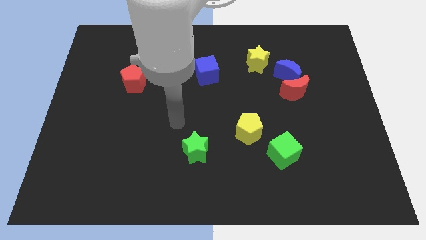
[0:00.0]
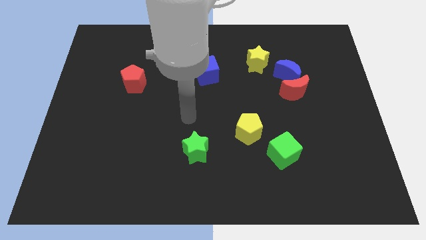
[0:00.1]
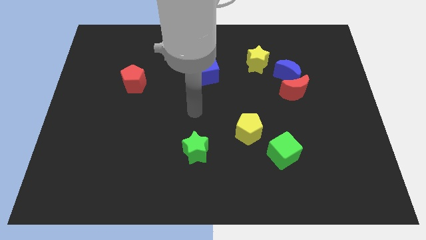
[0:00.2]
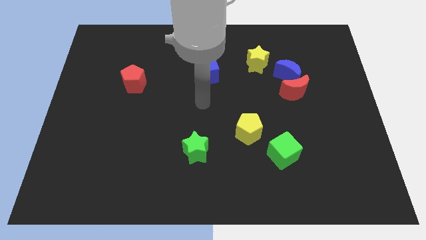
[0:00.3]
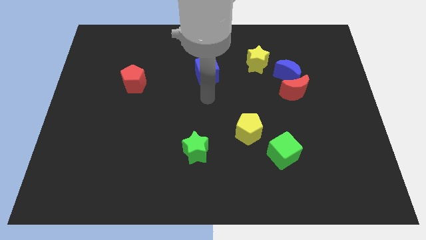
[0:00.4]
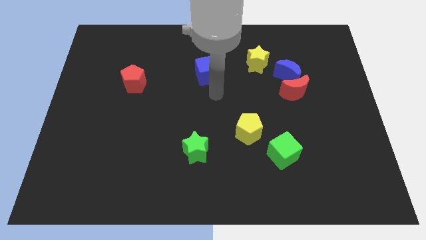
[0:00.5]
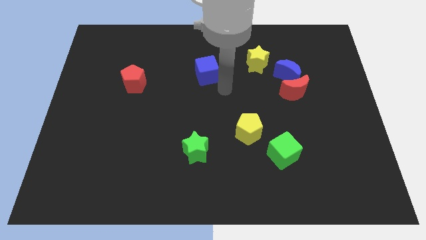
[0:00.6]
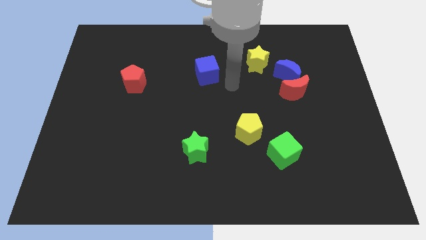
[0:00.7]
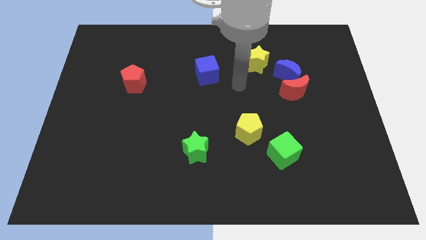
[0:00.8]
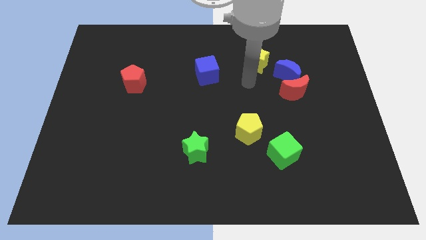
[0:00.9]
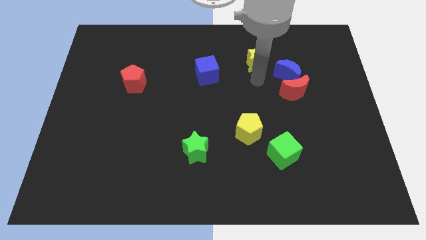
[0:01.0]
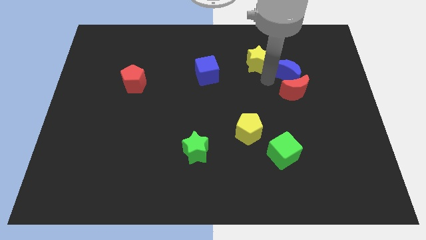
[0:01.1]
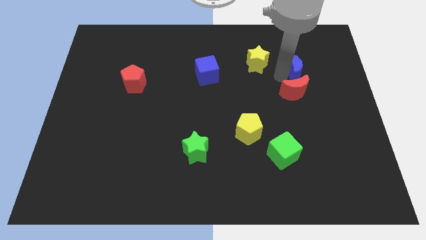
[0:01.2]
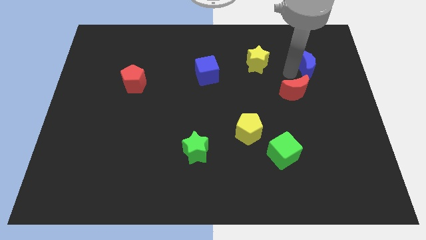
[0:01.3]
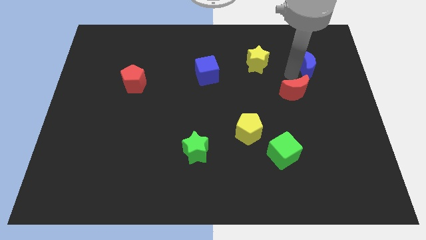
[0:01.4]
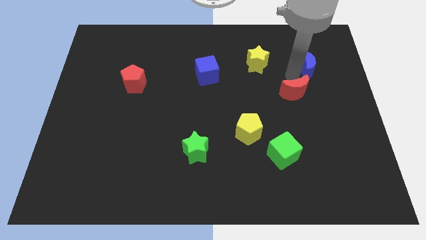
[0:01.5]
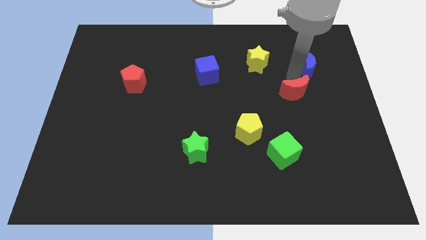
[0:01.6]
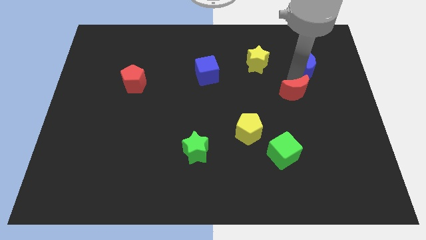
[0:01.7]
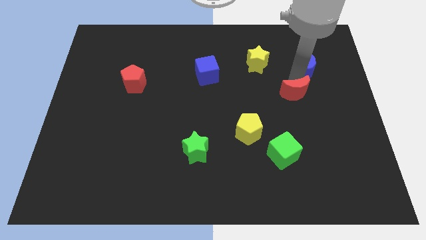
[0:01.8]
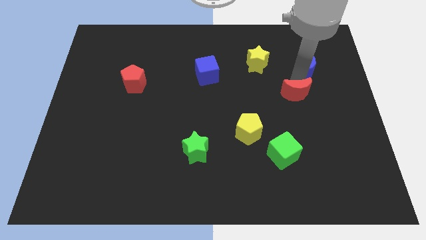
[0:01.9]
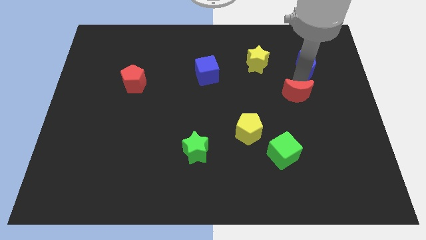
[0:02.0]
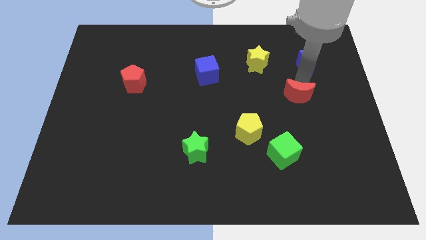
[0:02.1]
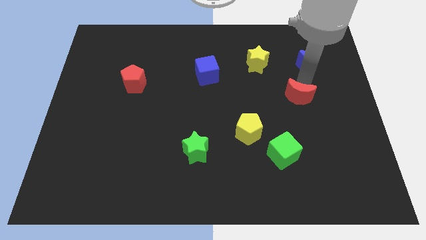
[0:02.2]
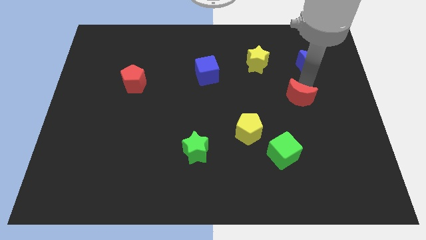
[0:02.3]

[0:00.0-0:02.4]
separate the red moon from the blue moon

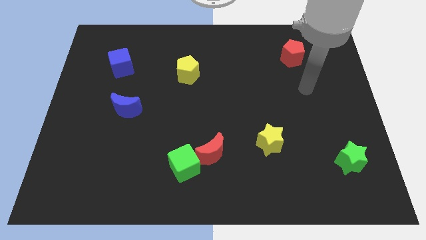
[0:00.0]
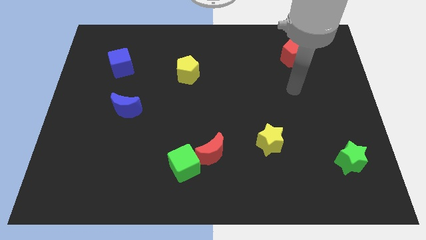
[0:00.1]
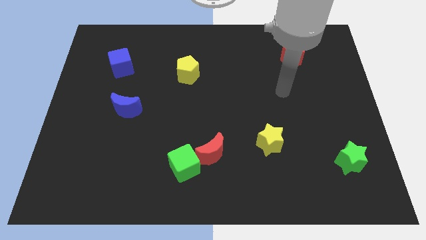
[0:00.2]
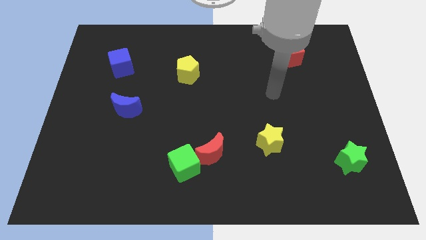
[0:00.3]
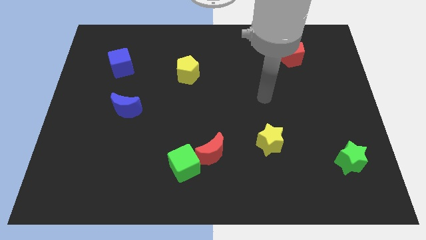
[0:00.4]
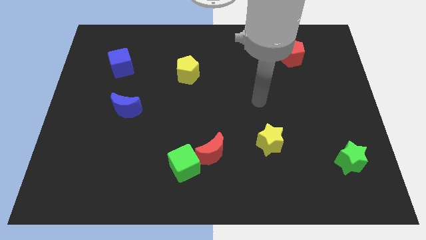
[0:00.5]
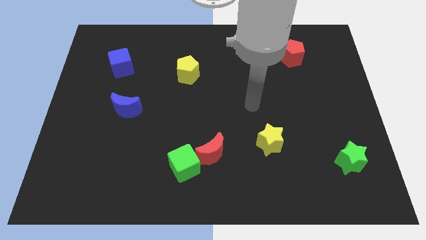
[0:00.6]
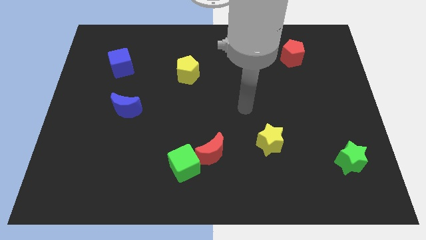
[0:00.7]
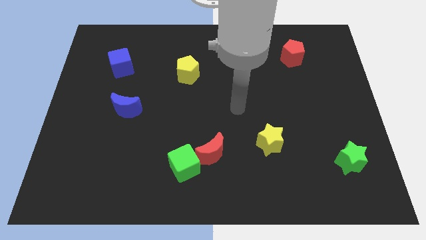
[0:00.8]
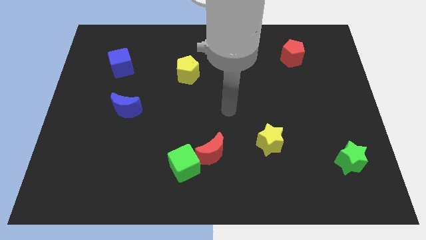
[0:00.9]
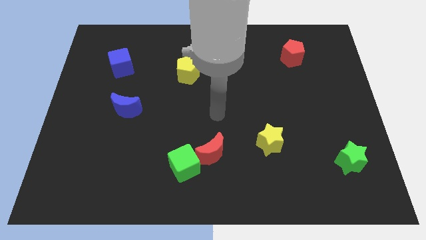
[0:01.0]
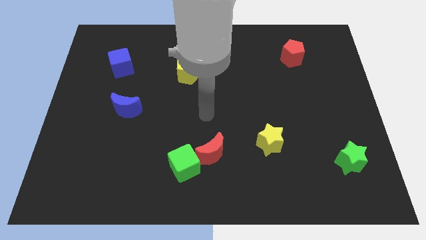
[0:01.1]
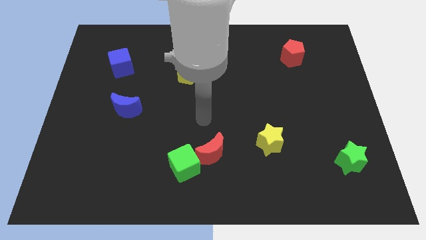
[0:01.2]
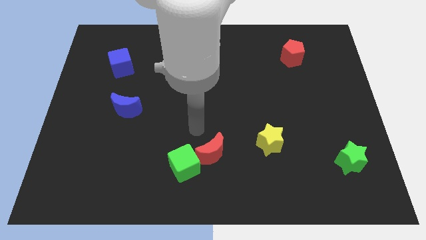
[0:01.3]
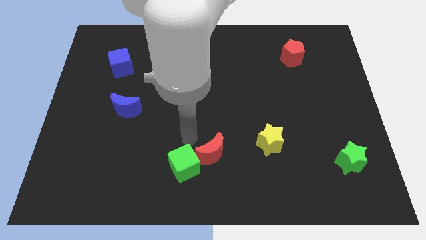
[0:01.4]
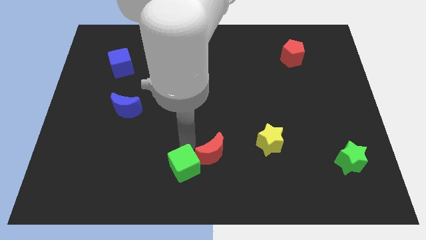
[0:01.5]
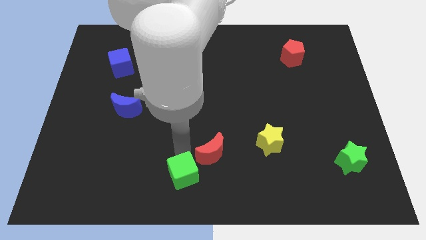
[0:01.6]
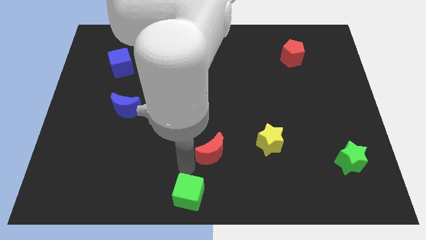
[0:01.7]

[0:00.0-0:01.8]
move the red moon away from the green cube

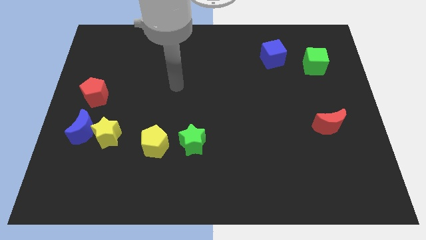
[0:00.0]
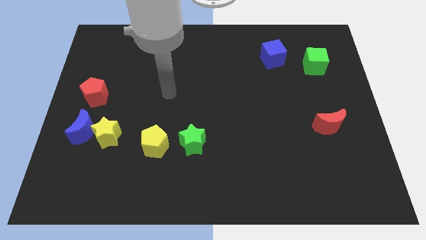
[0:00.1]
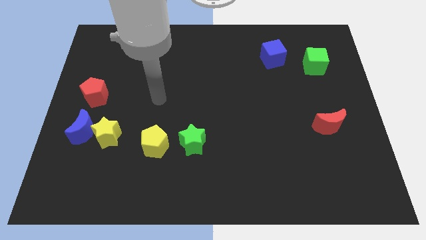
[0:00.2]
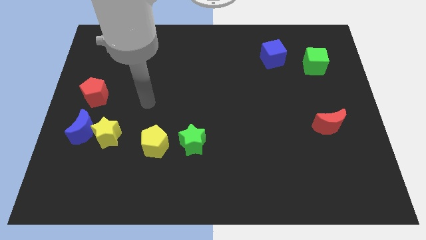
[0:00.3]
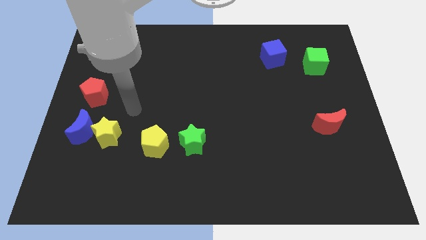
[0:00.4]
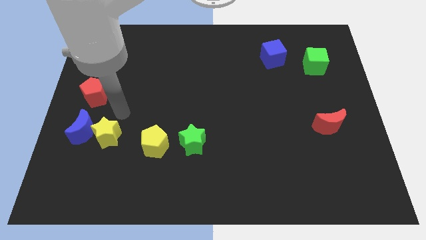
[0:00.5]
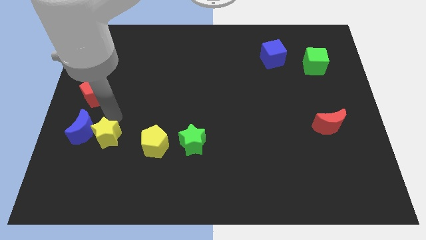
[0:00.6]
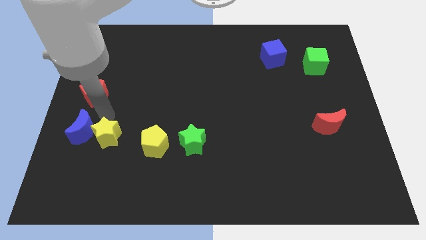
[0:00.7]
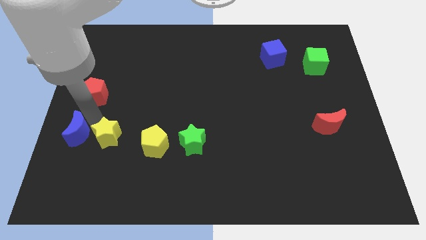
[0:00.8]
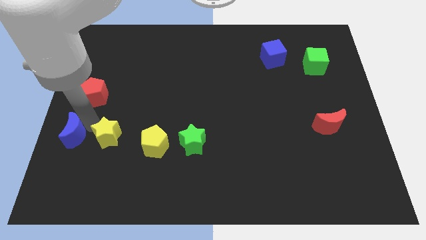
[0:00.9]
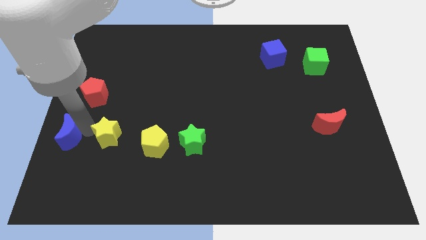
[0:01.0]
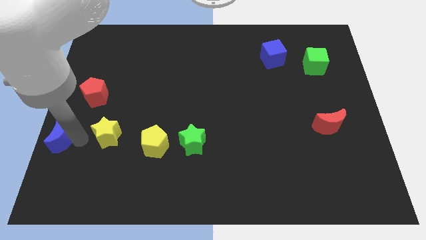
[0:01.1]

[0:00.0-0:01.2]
pull the yellow star apart from the blue moon

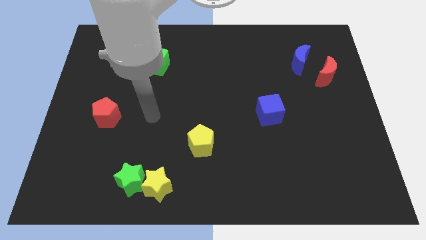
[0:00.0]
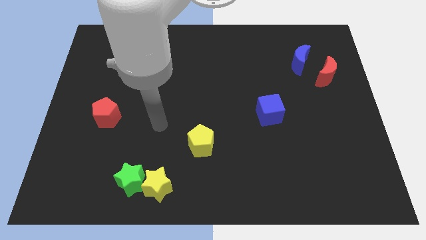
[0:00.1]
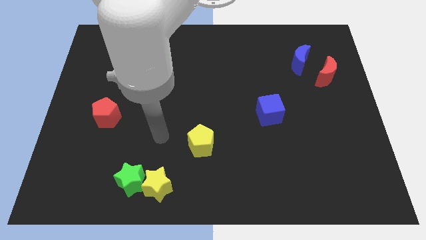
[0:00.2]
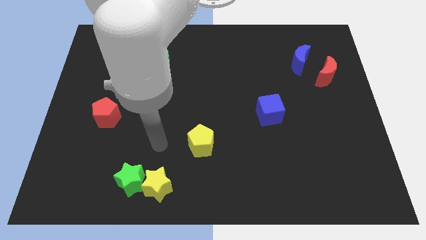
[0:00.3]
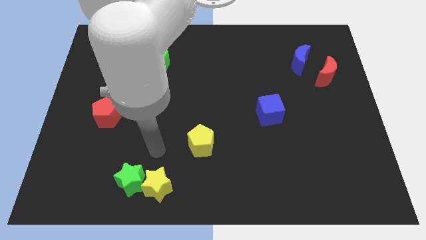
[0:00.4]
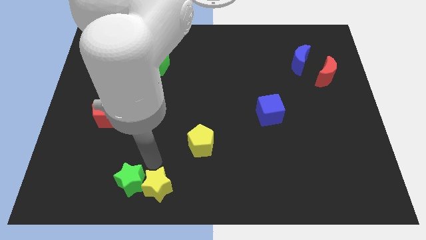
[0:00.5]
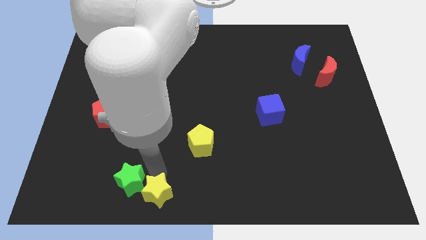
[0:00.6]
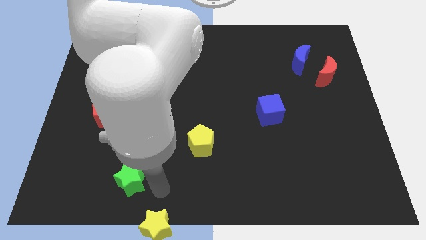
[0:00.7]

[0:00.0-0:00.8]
move the green star away from the yellow star

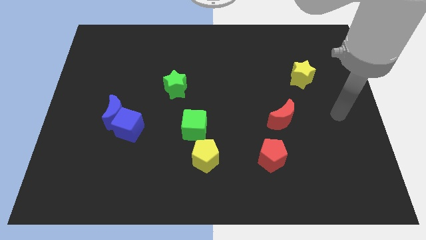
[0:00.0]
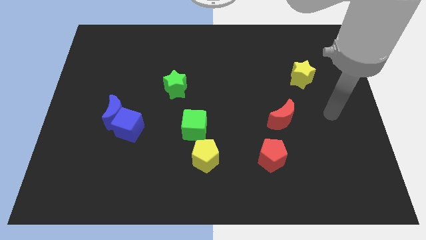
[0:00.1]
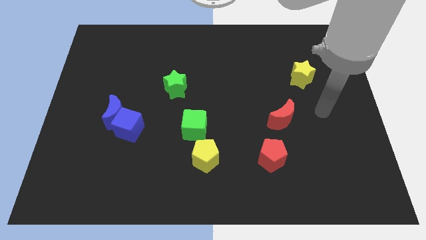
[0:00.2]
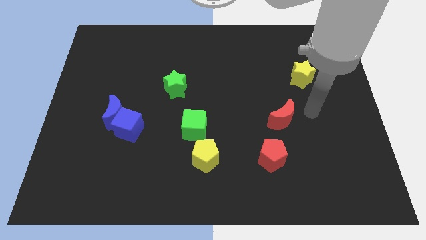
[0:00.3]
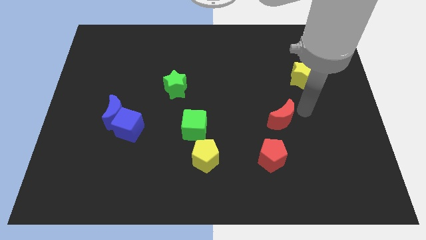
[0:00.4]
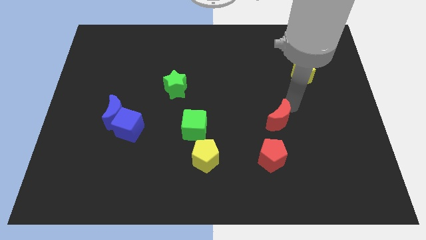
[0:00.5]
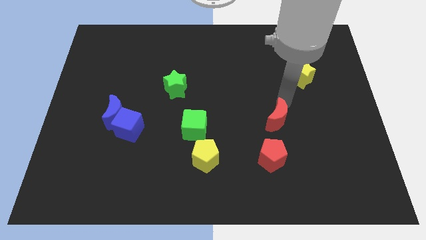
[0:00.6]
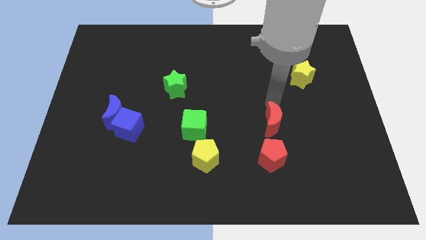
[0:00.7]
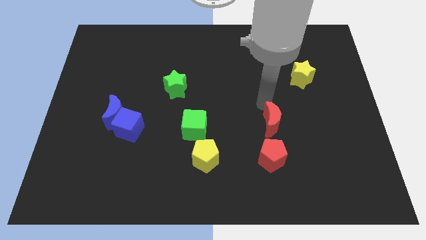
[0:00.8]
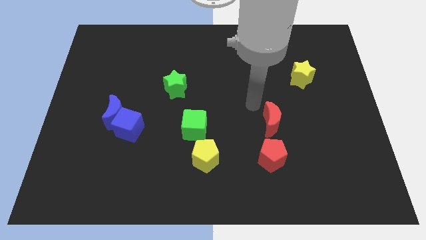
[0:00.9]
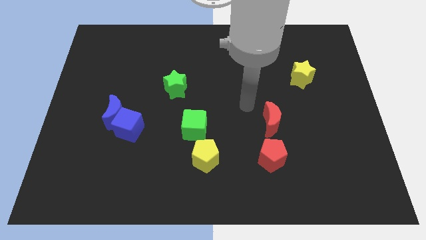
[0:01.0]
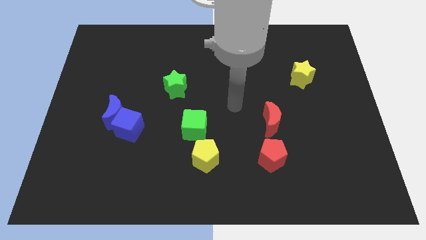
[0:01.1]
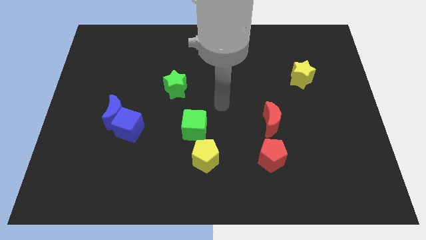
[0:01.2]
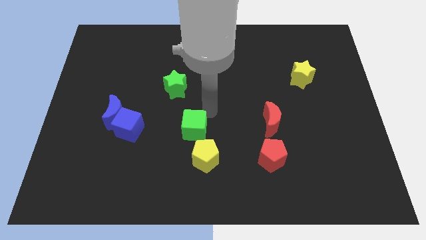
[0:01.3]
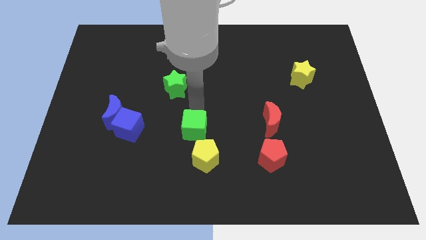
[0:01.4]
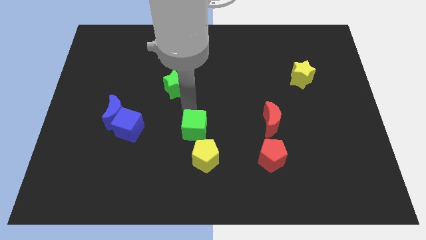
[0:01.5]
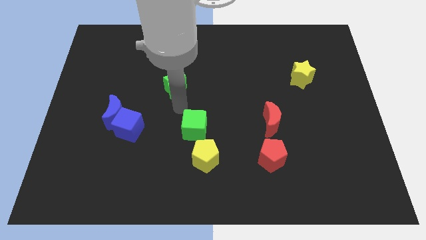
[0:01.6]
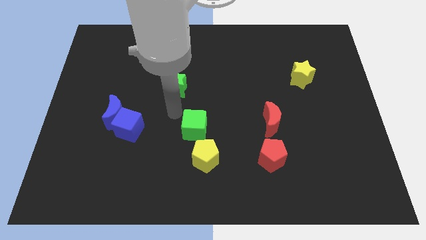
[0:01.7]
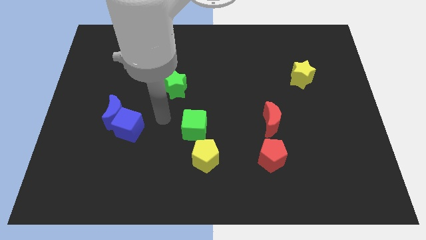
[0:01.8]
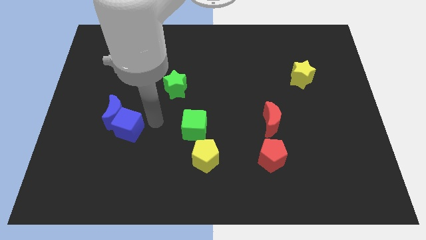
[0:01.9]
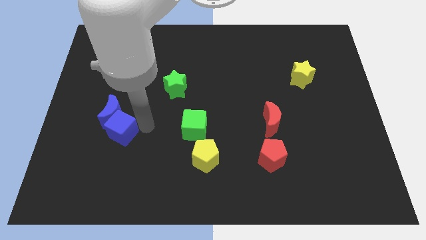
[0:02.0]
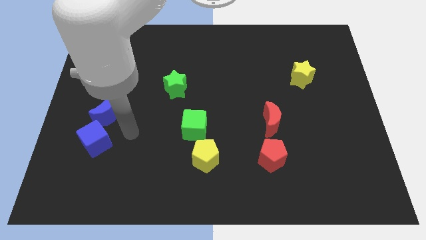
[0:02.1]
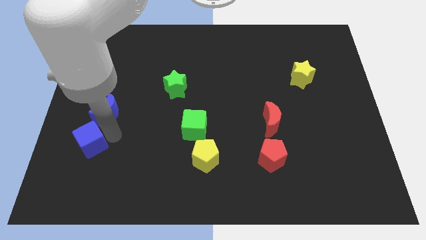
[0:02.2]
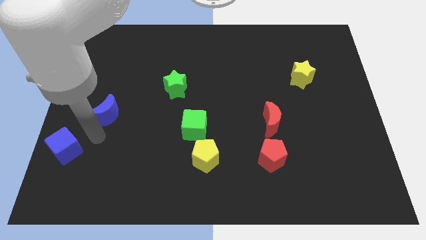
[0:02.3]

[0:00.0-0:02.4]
move the blue moon away from the blue cube

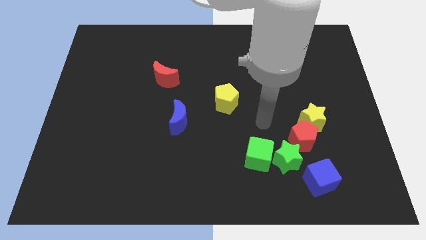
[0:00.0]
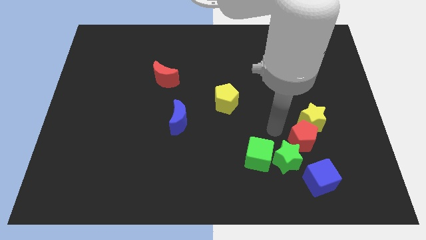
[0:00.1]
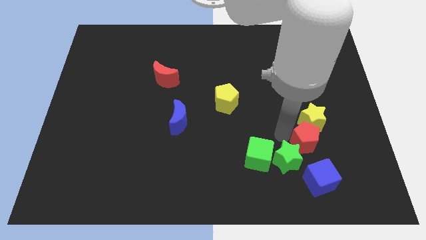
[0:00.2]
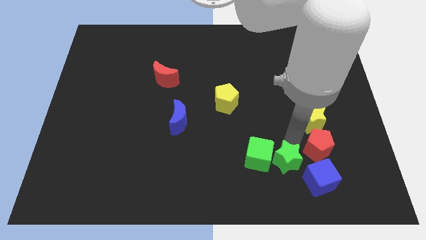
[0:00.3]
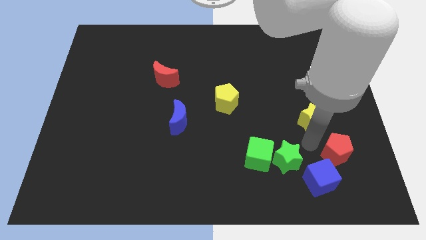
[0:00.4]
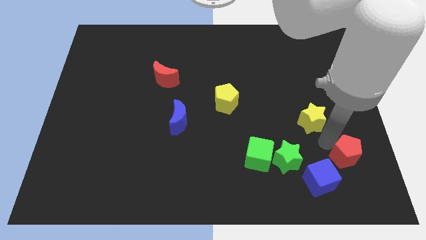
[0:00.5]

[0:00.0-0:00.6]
move the yellow star away from the red pentagon
